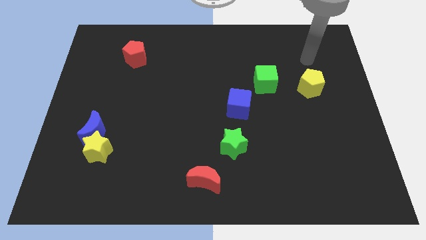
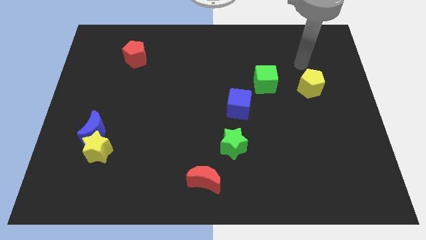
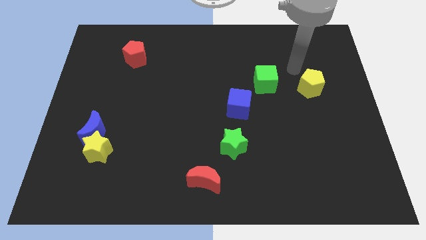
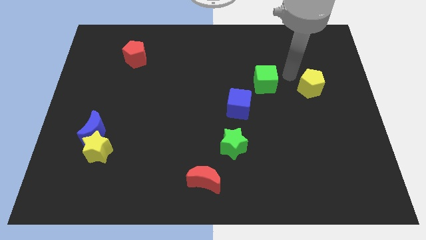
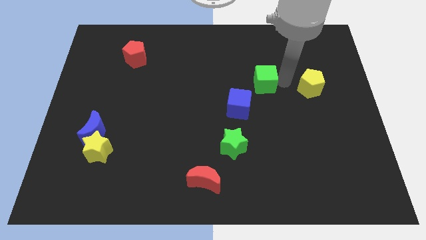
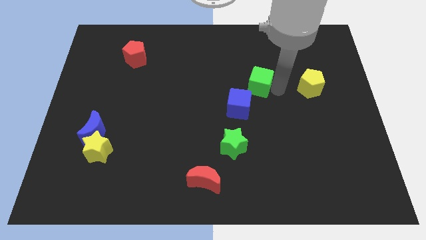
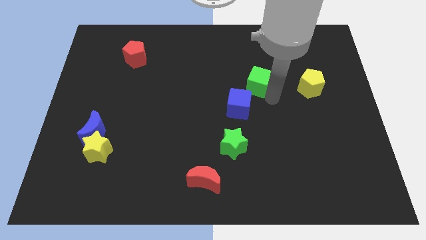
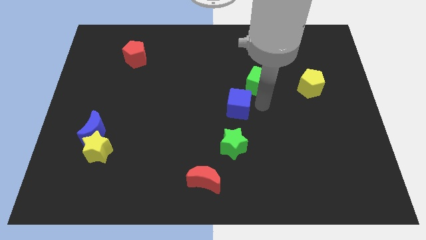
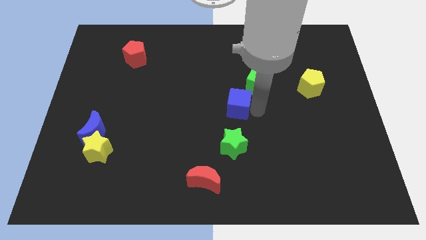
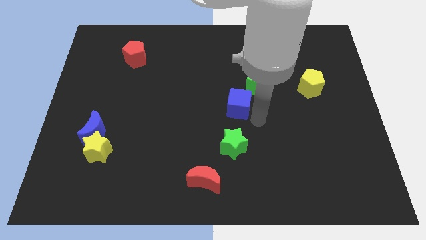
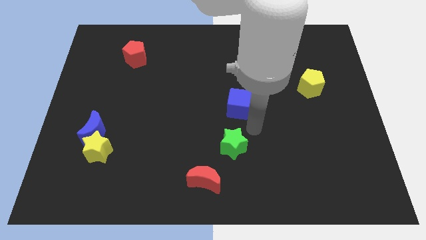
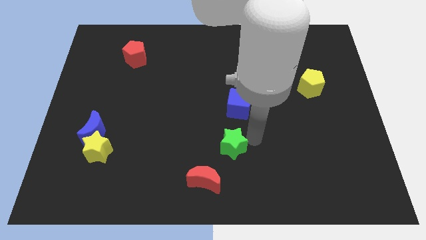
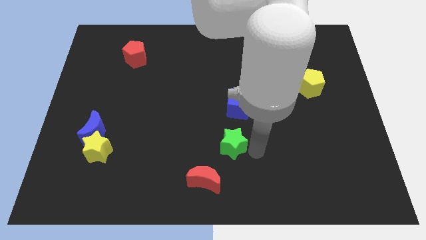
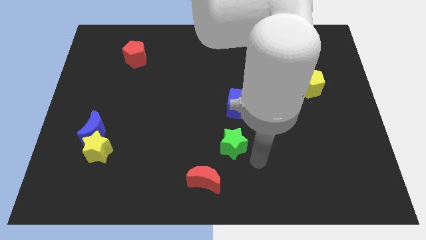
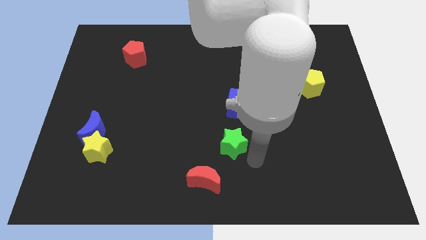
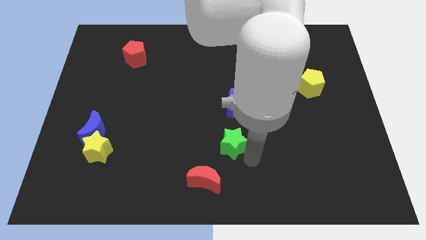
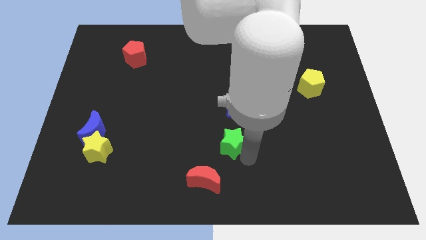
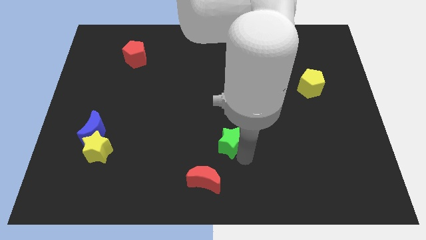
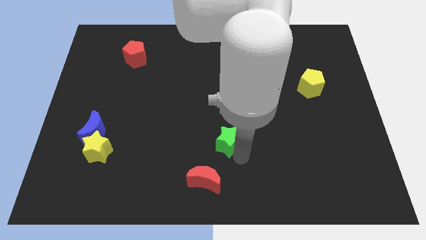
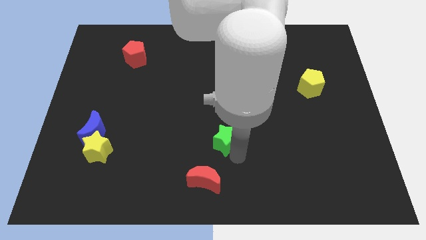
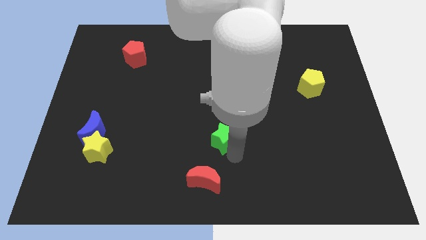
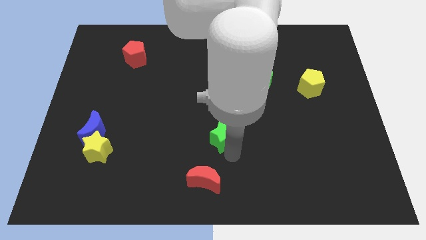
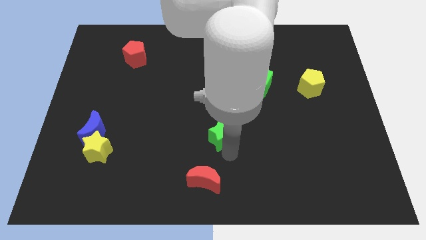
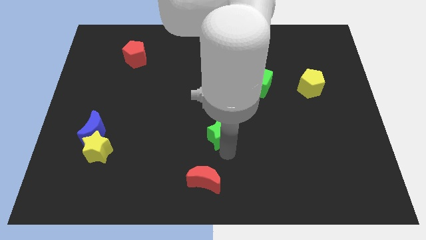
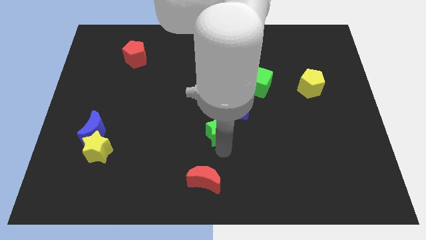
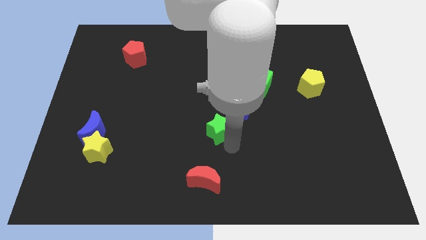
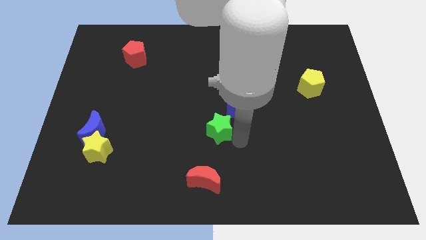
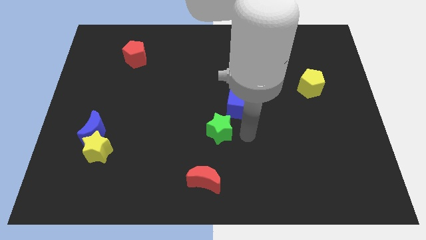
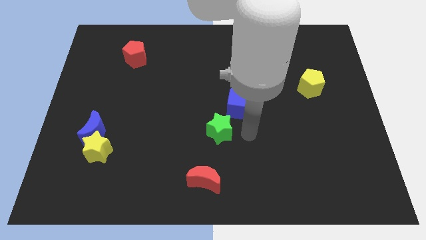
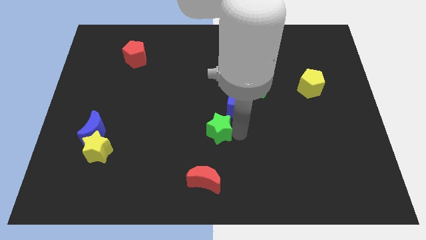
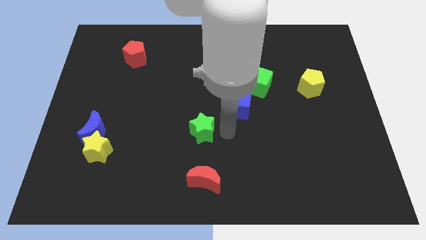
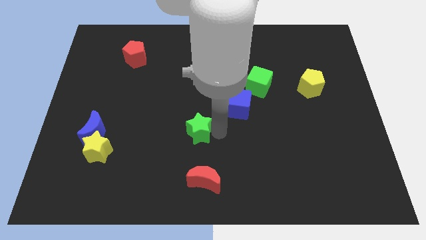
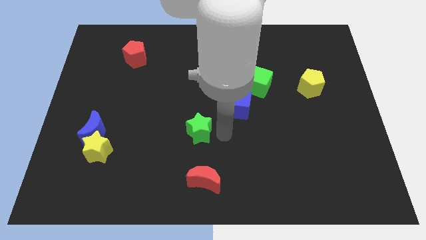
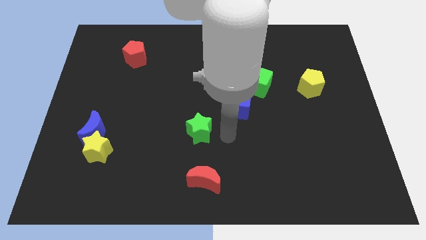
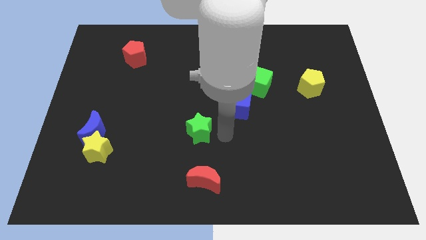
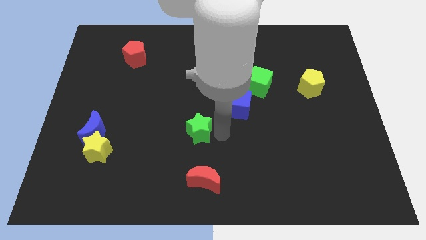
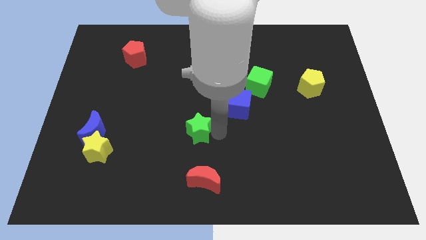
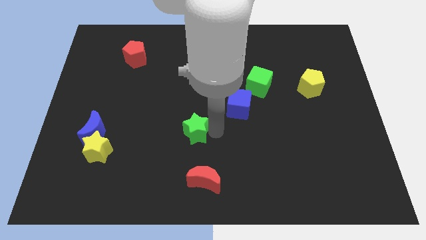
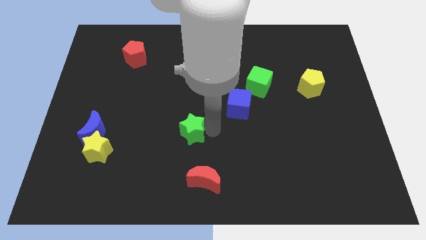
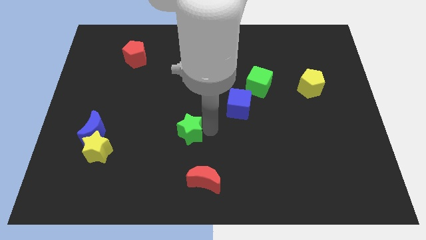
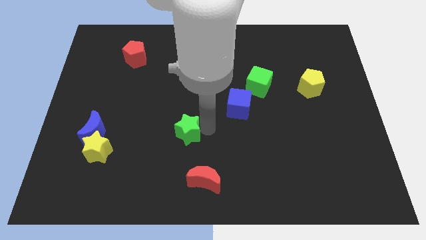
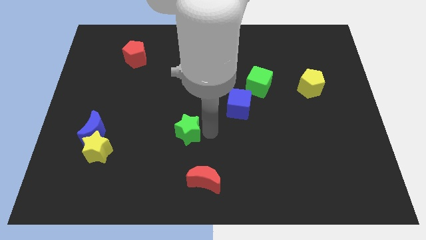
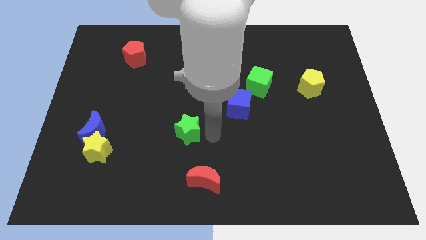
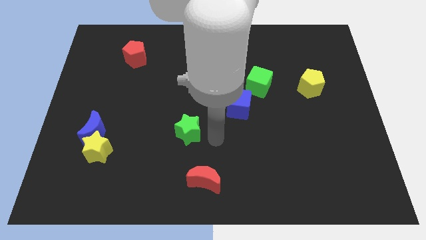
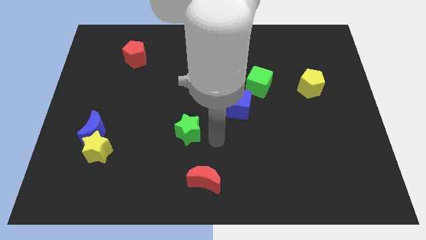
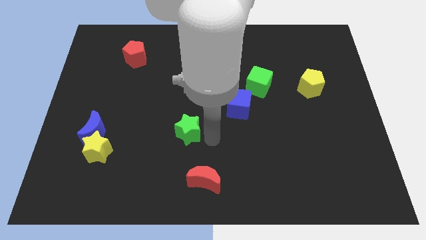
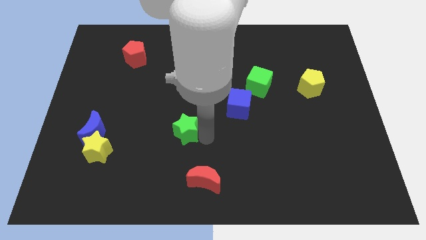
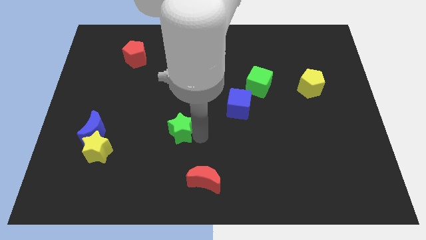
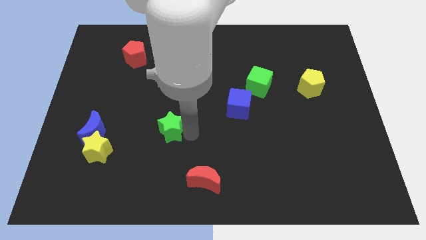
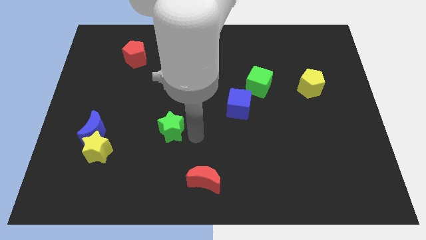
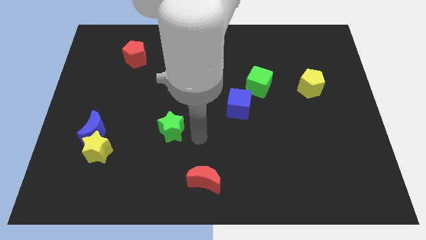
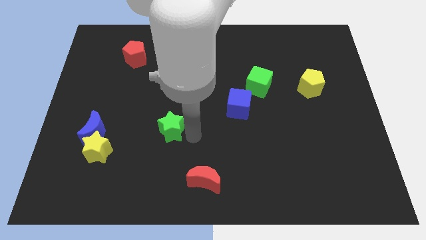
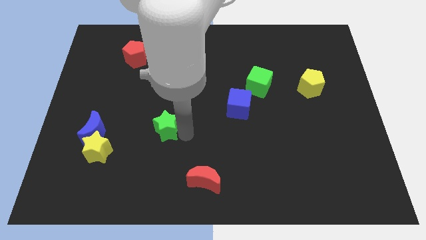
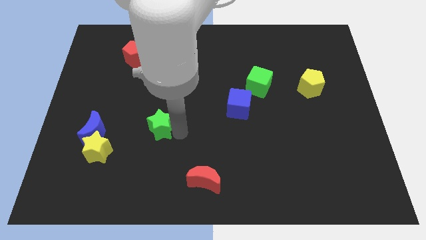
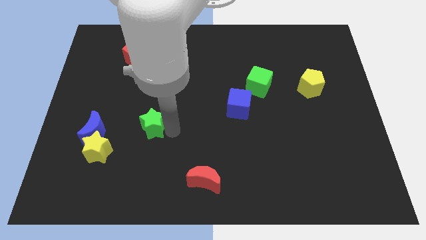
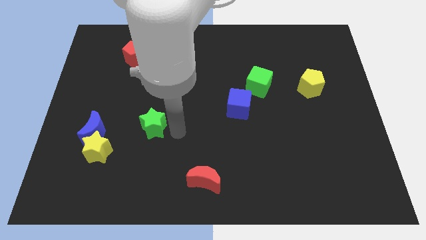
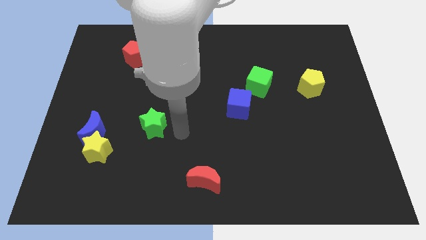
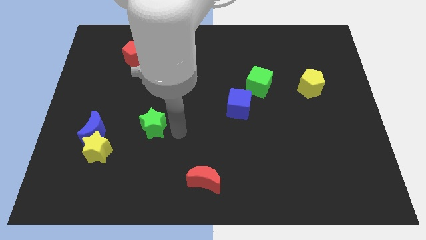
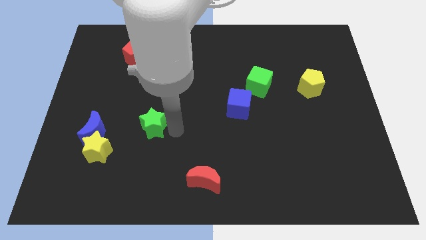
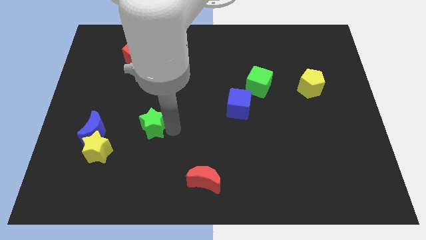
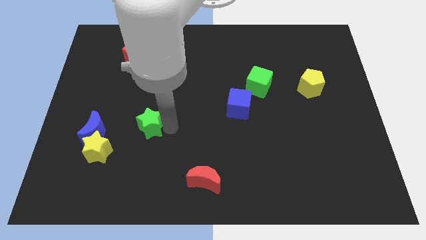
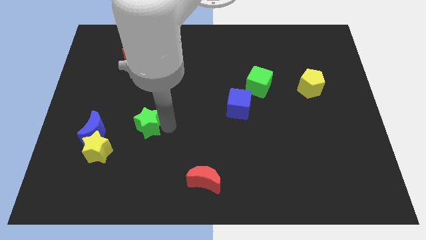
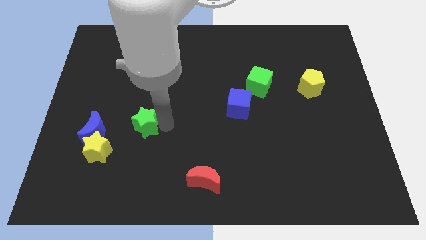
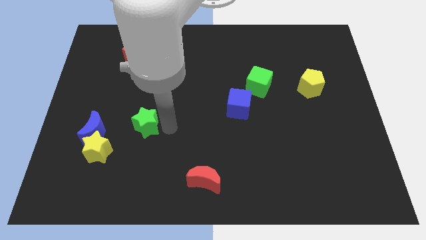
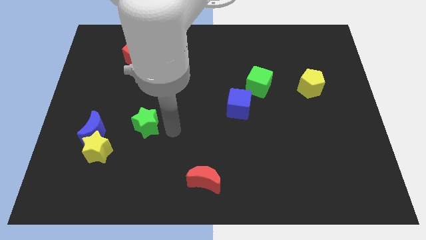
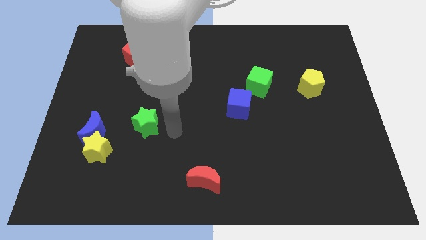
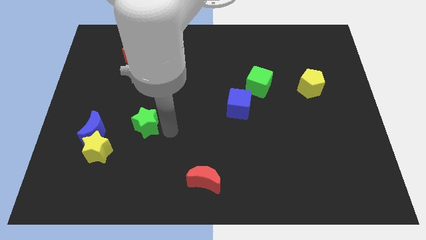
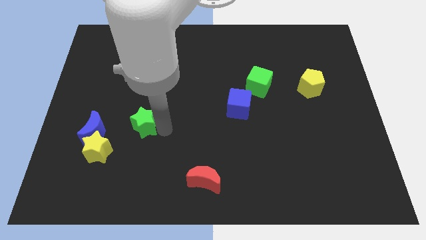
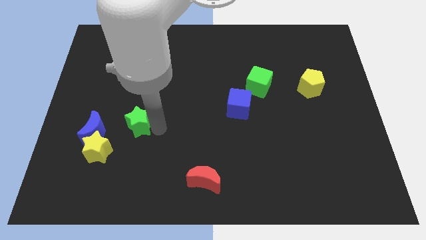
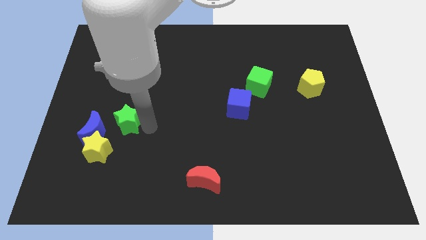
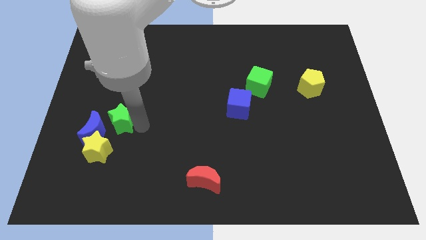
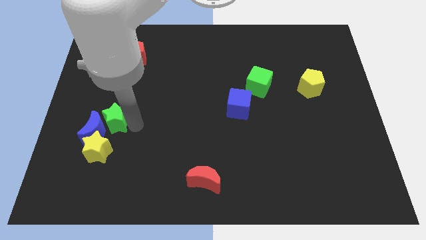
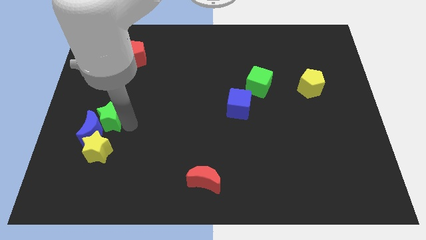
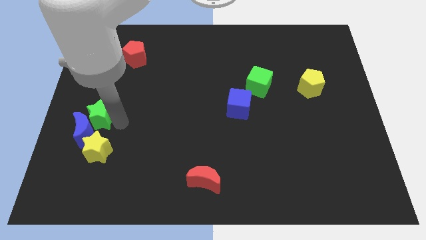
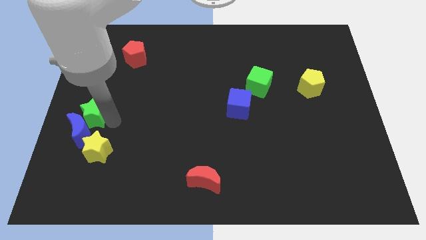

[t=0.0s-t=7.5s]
slide the green star to the center left
